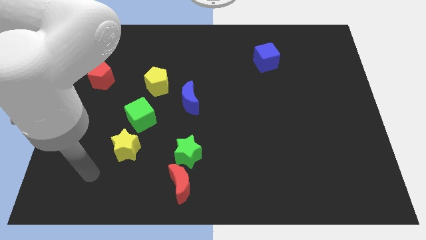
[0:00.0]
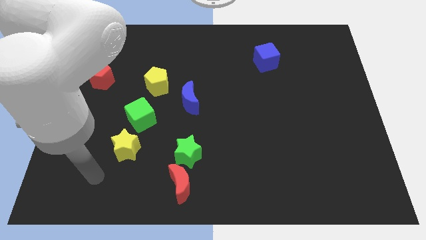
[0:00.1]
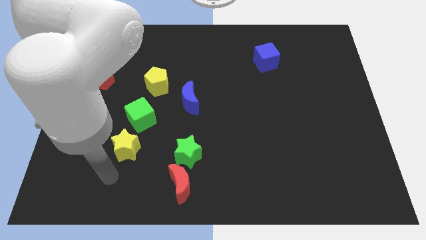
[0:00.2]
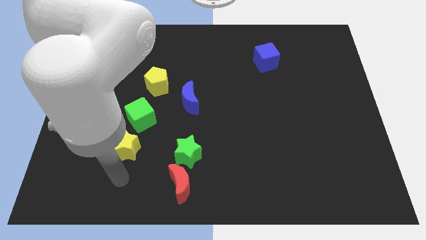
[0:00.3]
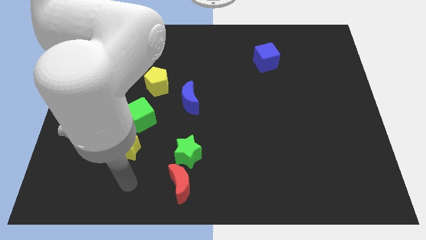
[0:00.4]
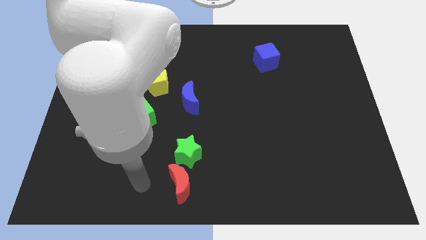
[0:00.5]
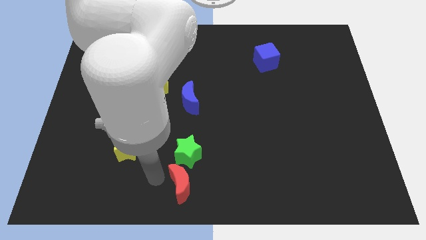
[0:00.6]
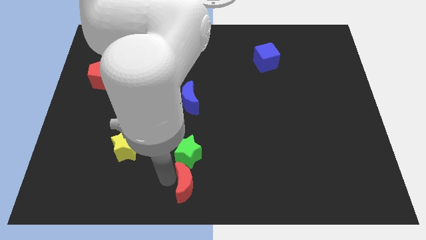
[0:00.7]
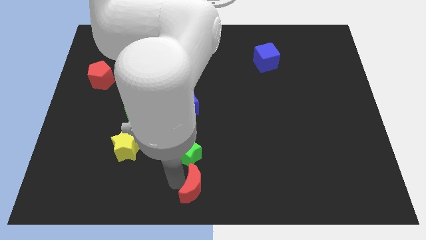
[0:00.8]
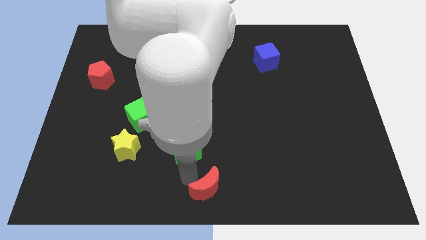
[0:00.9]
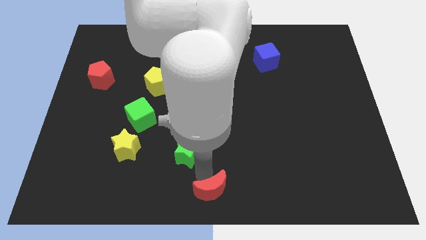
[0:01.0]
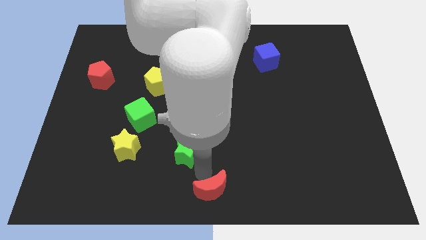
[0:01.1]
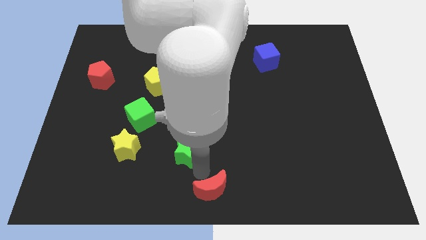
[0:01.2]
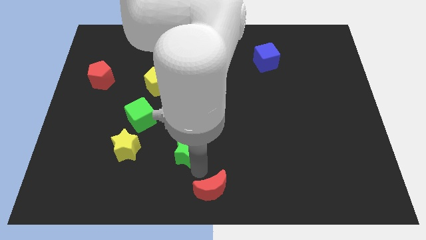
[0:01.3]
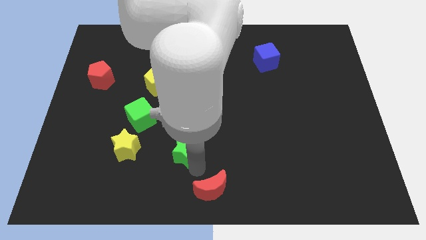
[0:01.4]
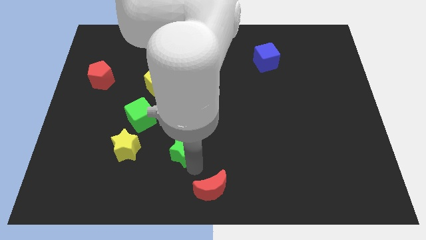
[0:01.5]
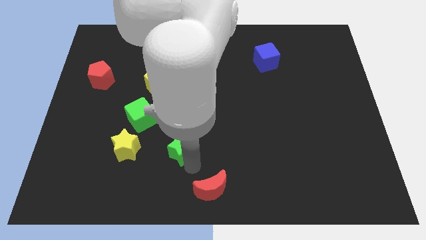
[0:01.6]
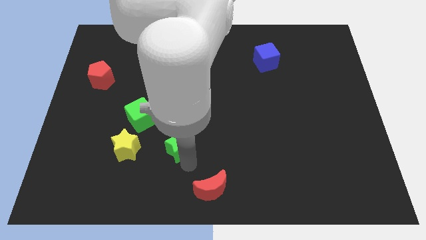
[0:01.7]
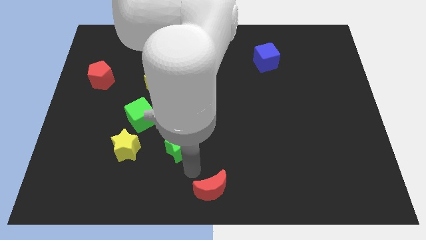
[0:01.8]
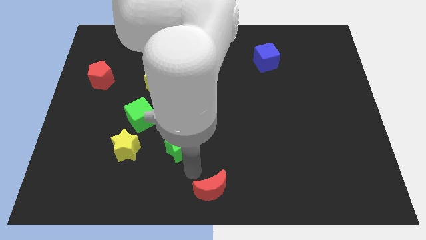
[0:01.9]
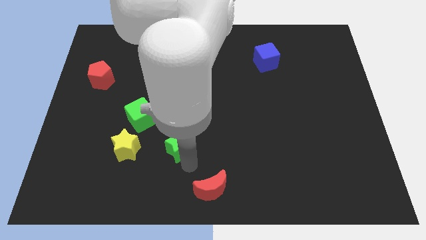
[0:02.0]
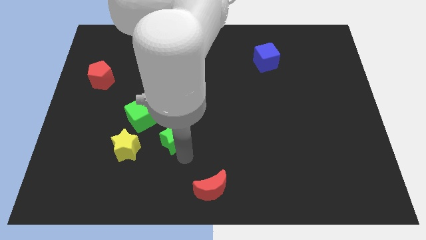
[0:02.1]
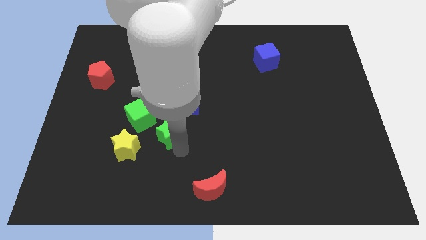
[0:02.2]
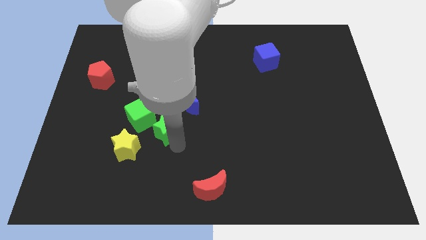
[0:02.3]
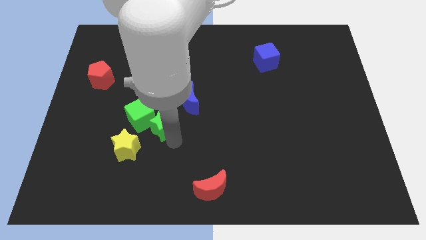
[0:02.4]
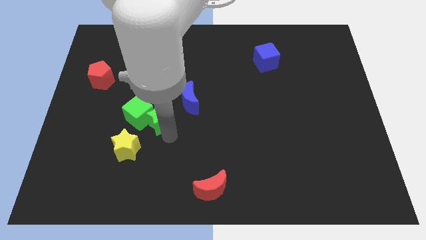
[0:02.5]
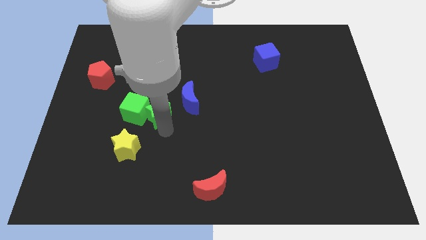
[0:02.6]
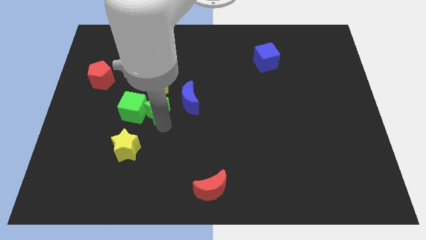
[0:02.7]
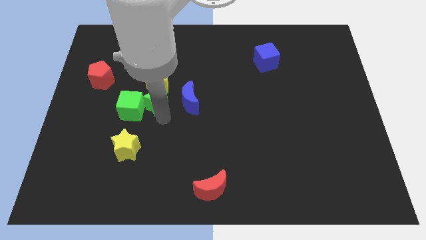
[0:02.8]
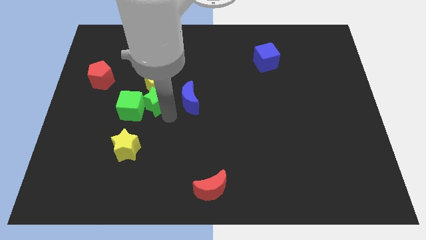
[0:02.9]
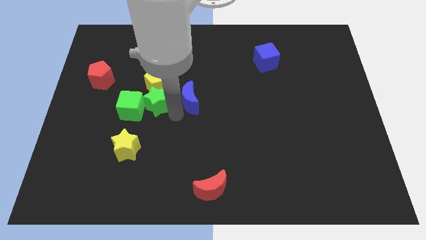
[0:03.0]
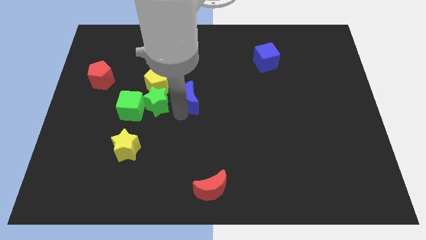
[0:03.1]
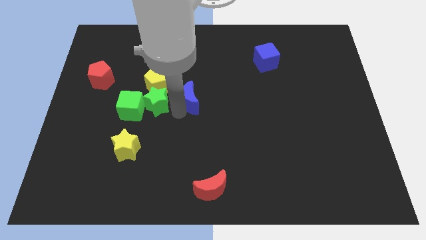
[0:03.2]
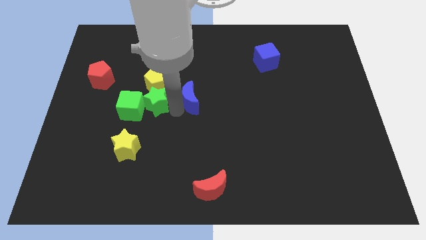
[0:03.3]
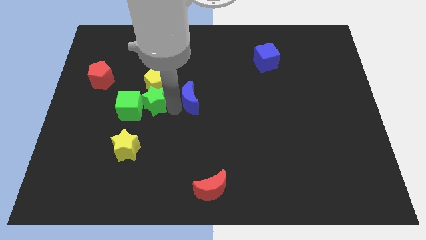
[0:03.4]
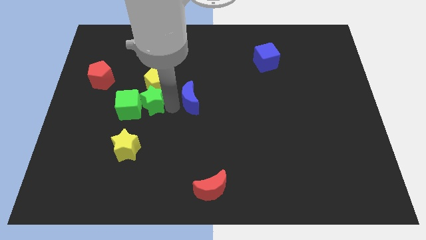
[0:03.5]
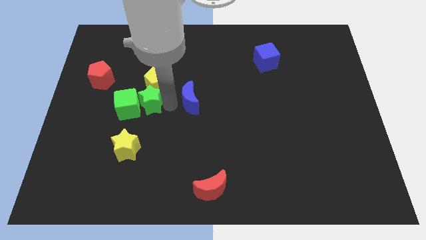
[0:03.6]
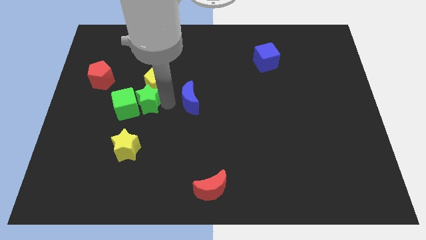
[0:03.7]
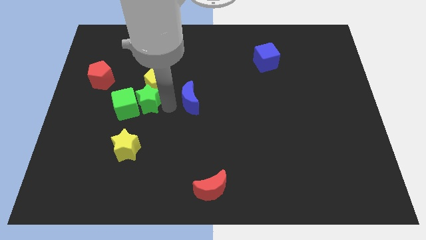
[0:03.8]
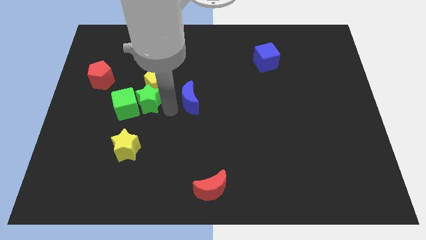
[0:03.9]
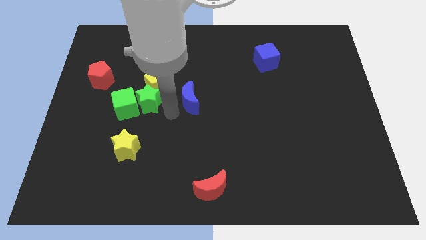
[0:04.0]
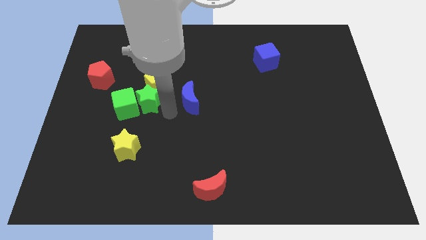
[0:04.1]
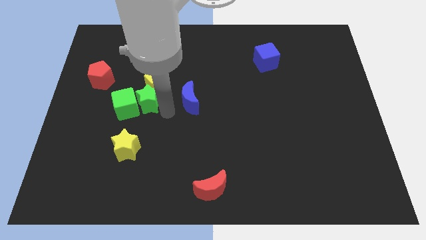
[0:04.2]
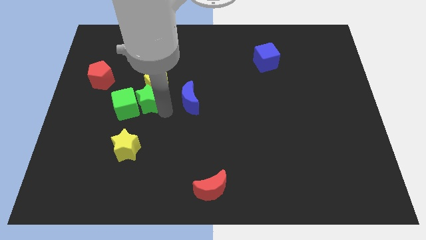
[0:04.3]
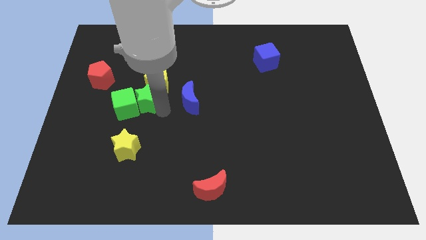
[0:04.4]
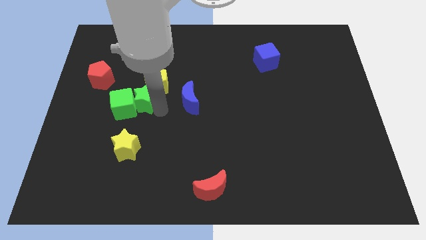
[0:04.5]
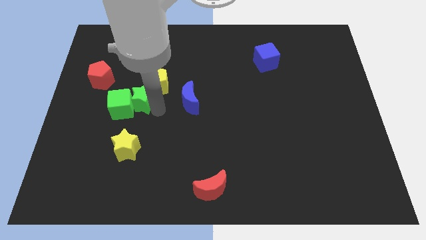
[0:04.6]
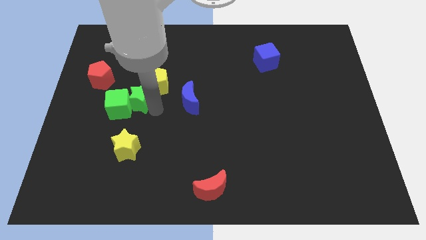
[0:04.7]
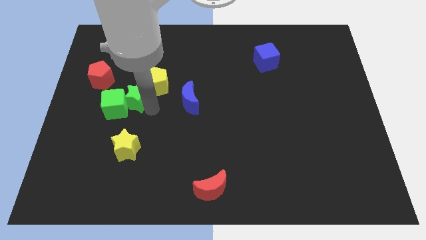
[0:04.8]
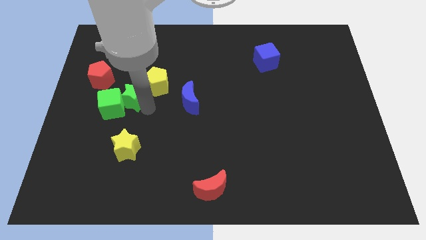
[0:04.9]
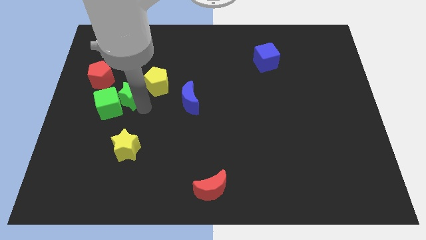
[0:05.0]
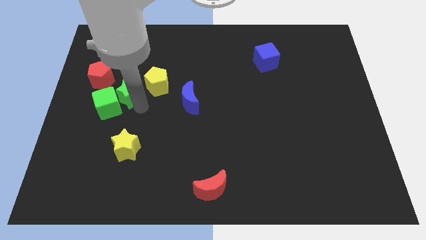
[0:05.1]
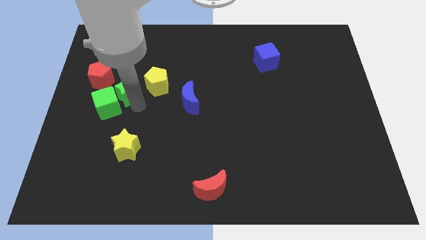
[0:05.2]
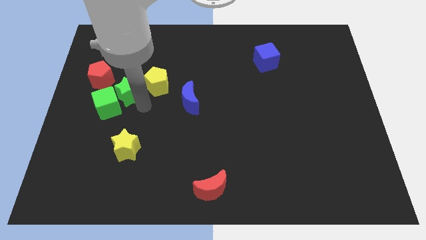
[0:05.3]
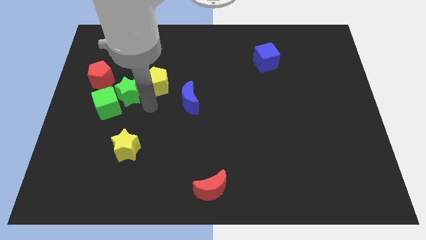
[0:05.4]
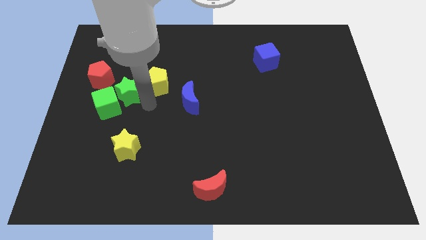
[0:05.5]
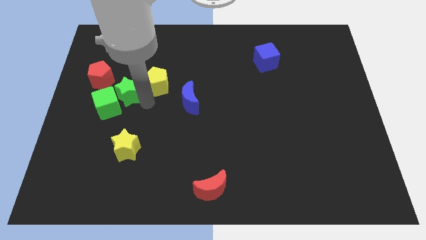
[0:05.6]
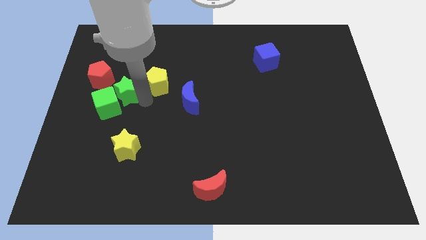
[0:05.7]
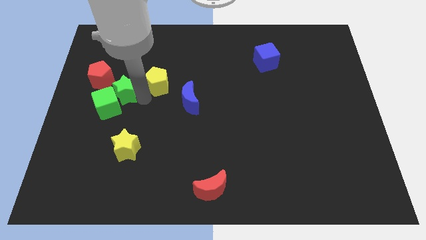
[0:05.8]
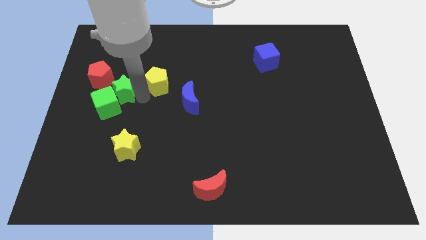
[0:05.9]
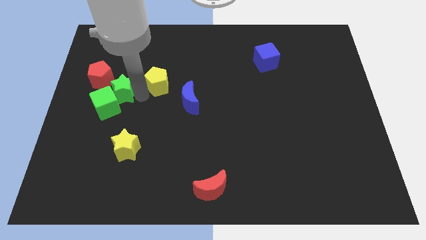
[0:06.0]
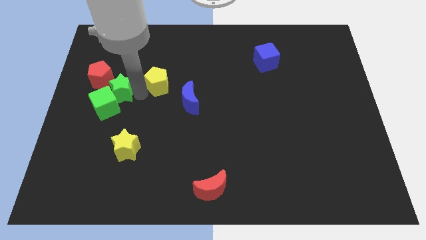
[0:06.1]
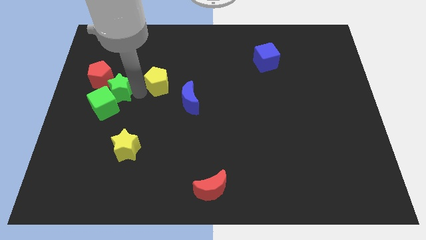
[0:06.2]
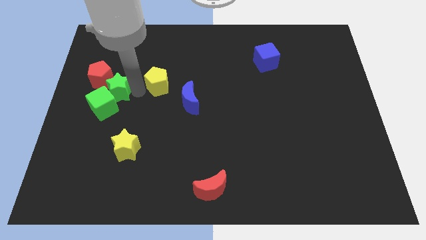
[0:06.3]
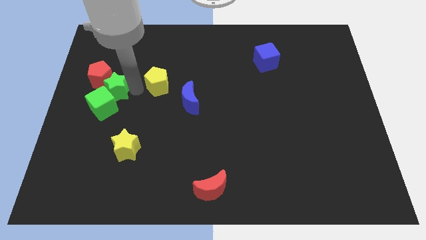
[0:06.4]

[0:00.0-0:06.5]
push the green star towards the red pentagon

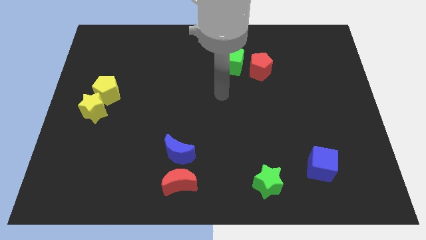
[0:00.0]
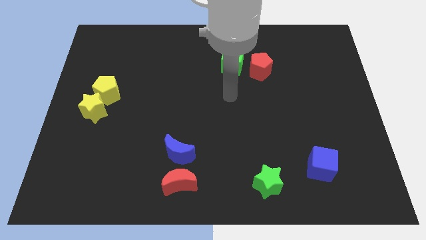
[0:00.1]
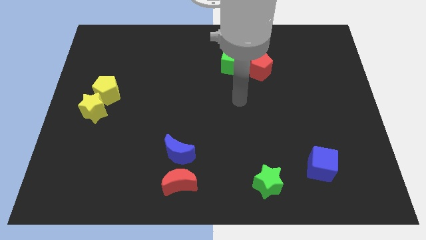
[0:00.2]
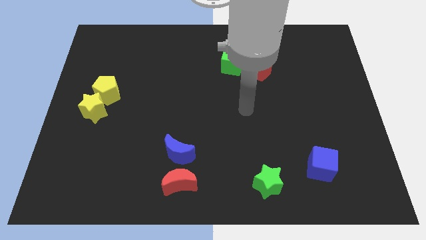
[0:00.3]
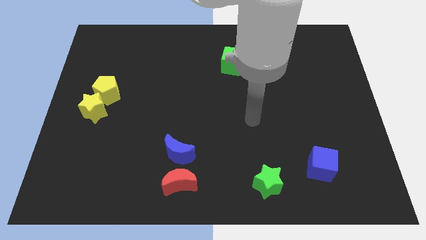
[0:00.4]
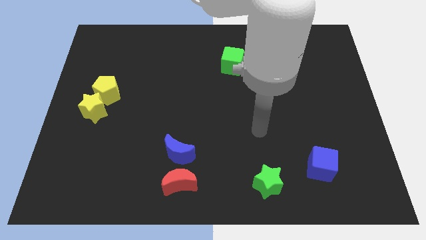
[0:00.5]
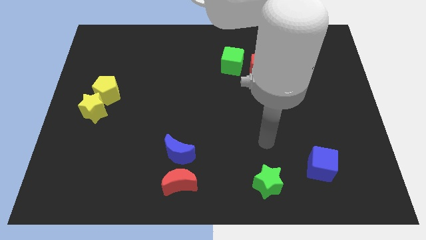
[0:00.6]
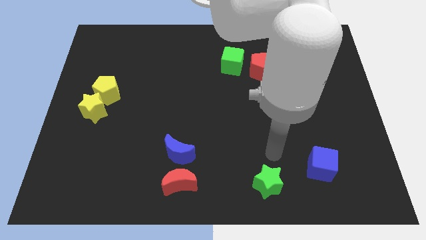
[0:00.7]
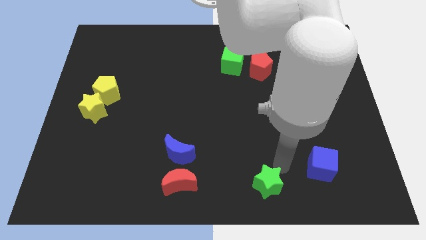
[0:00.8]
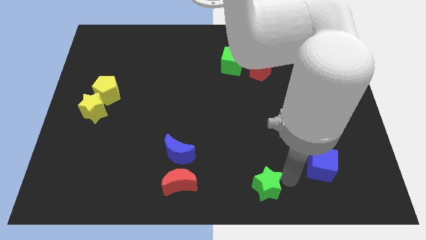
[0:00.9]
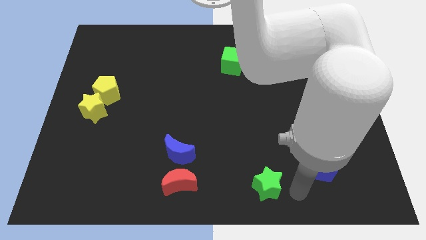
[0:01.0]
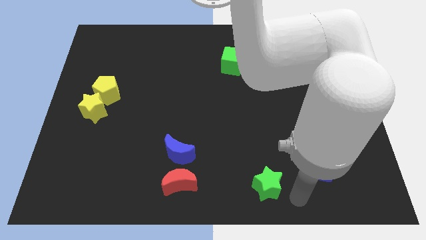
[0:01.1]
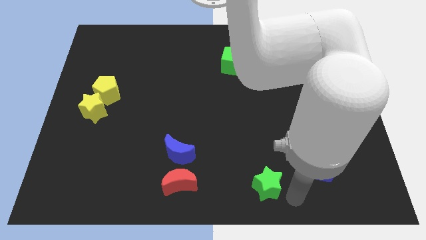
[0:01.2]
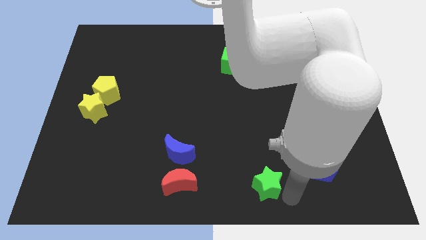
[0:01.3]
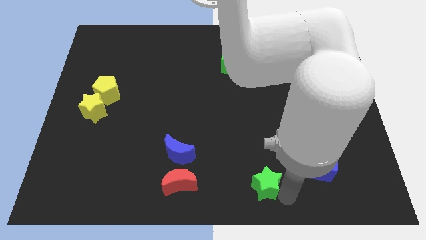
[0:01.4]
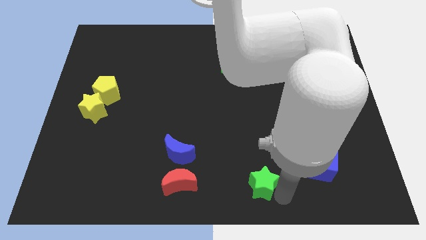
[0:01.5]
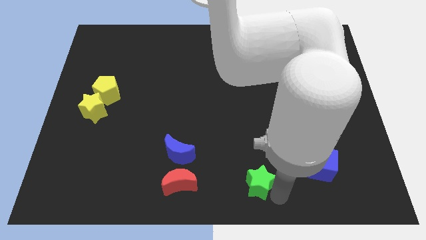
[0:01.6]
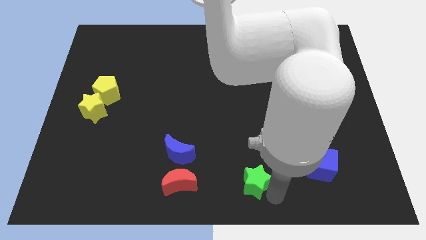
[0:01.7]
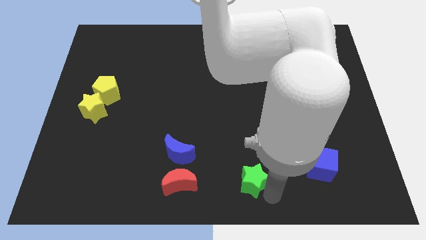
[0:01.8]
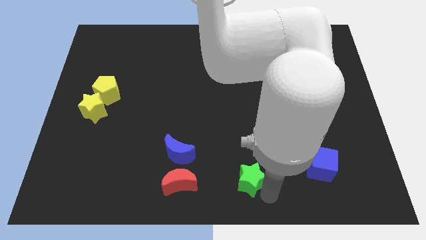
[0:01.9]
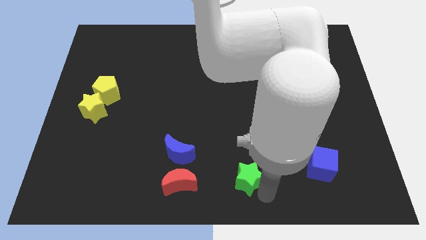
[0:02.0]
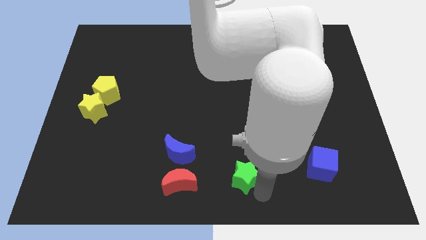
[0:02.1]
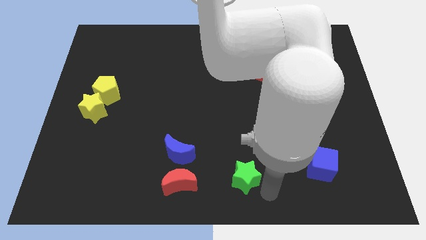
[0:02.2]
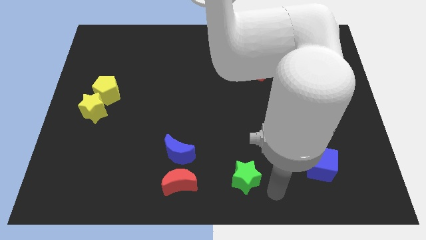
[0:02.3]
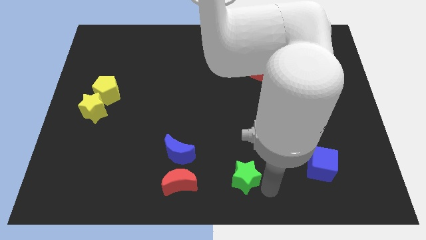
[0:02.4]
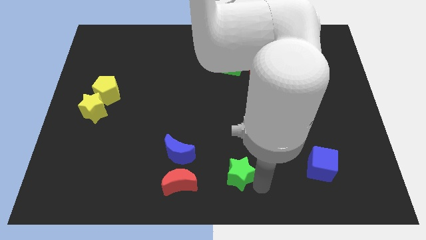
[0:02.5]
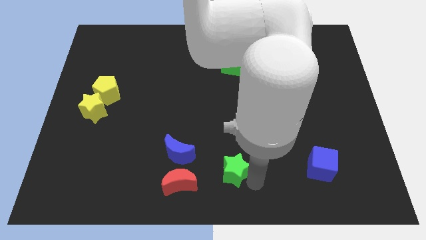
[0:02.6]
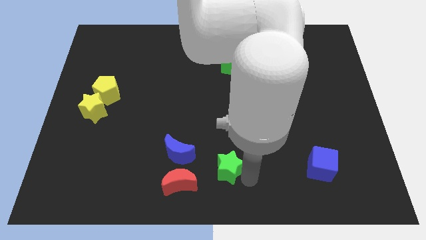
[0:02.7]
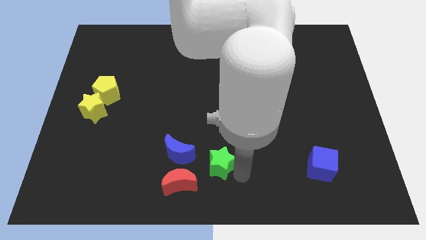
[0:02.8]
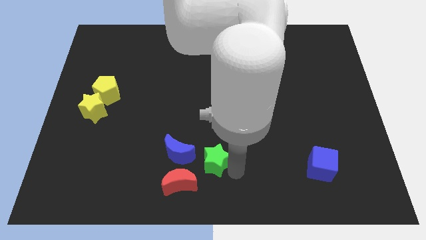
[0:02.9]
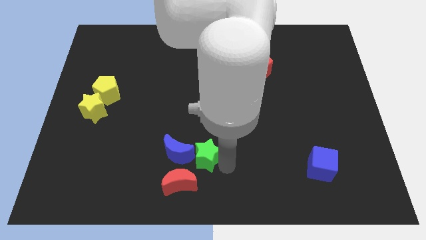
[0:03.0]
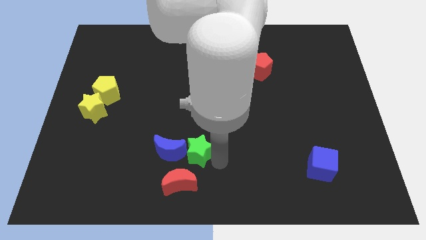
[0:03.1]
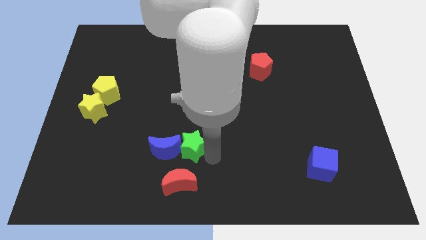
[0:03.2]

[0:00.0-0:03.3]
put the green star to the blue moon
